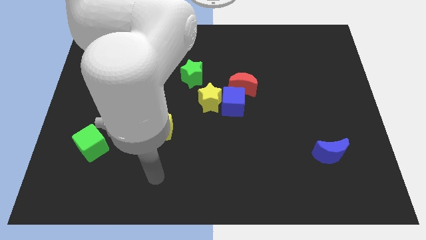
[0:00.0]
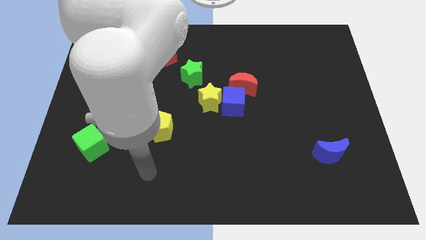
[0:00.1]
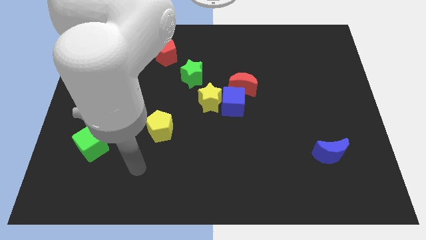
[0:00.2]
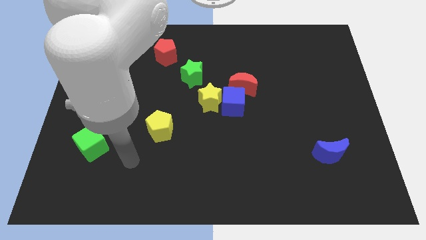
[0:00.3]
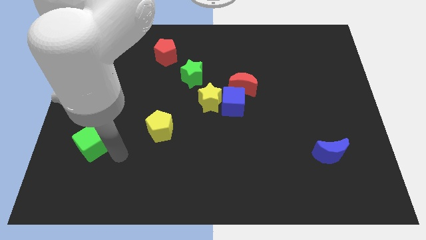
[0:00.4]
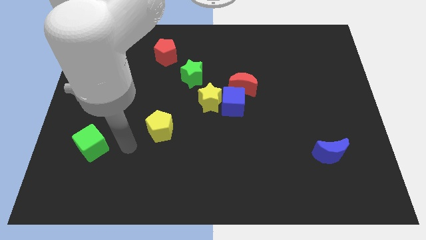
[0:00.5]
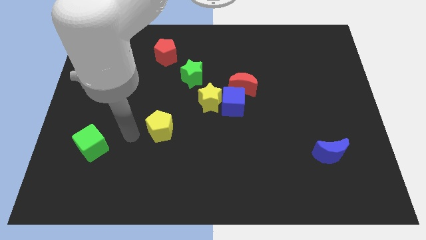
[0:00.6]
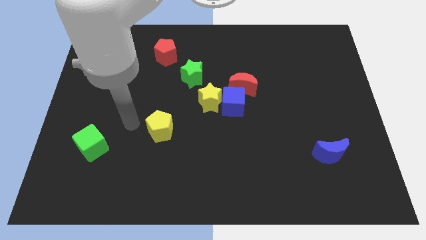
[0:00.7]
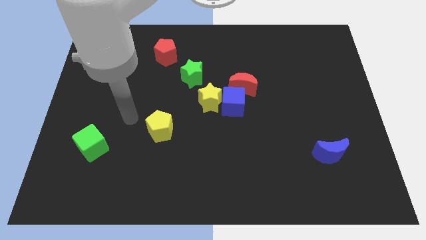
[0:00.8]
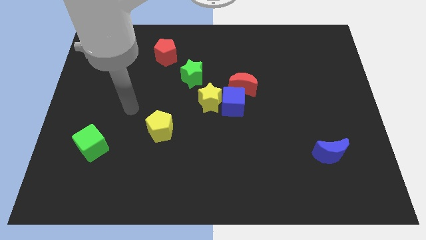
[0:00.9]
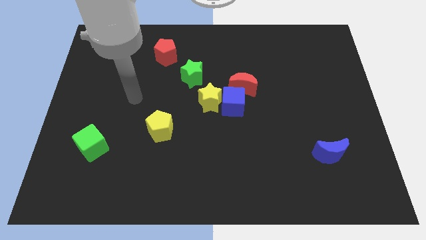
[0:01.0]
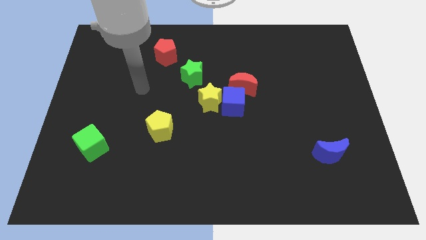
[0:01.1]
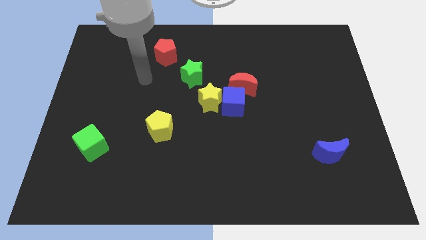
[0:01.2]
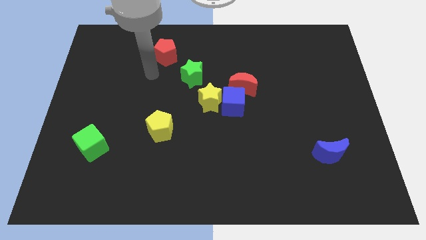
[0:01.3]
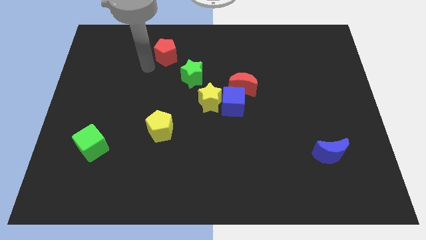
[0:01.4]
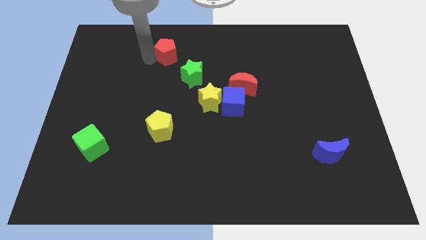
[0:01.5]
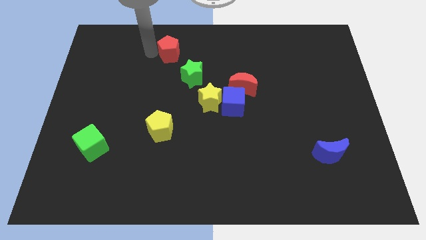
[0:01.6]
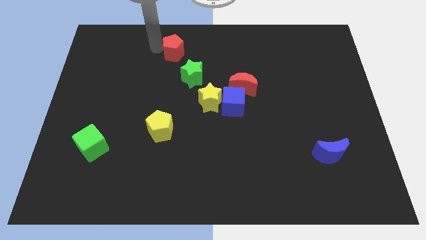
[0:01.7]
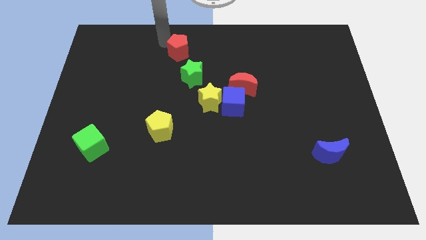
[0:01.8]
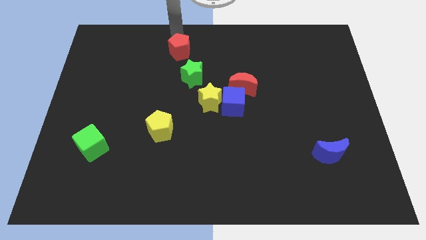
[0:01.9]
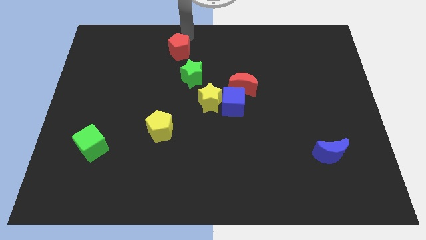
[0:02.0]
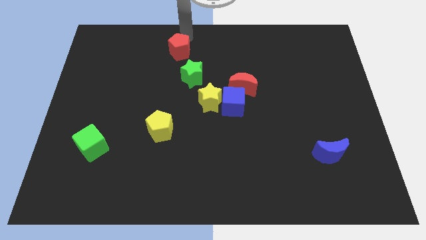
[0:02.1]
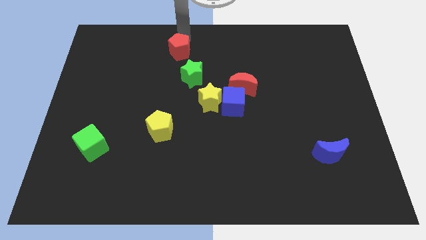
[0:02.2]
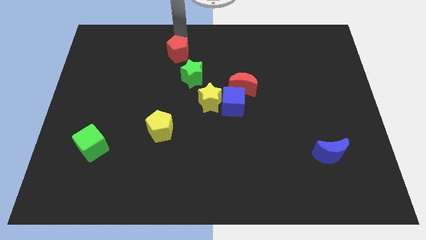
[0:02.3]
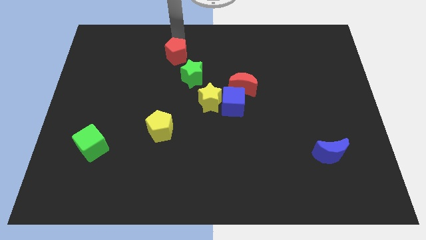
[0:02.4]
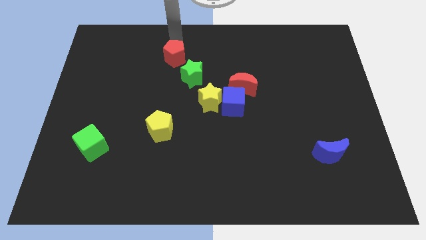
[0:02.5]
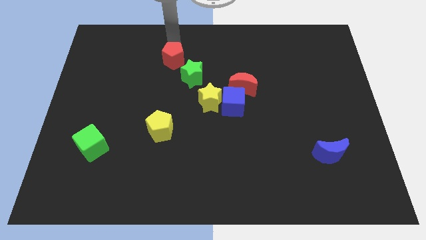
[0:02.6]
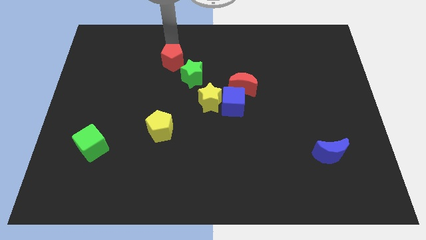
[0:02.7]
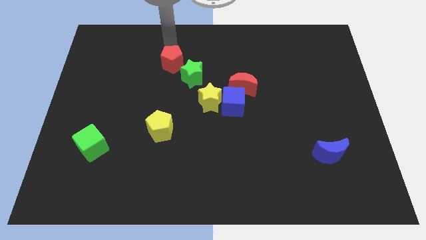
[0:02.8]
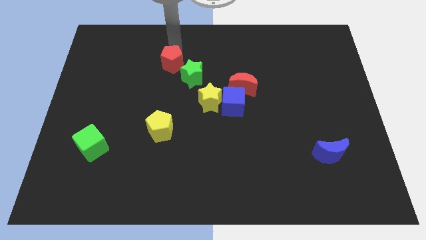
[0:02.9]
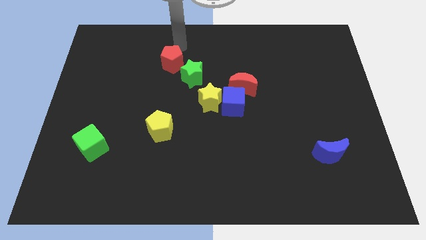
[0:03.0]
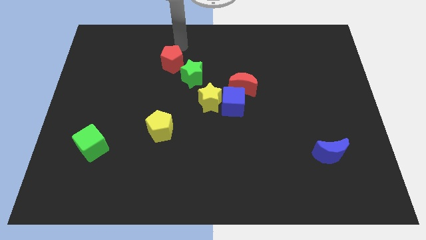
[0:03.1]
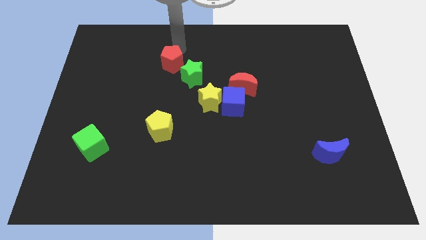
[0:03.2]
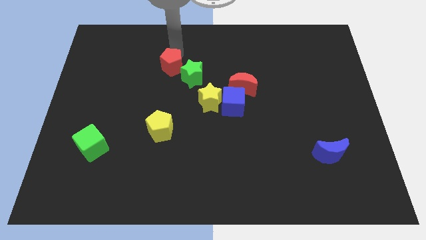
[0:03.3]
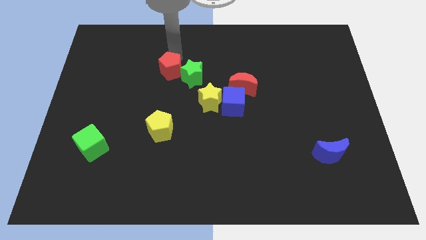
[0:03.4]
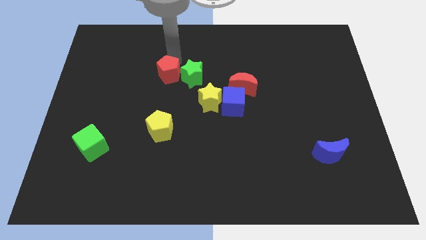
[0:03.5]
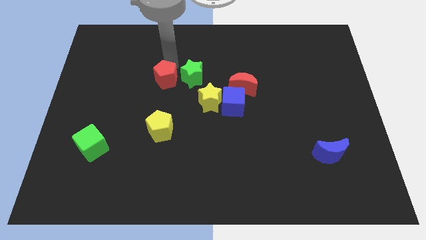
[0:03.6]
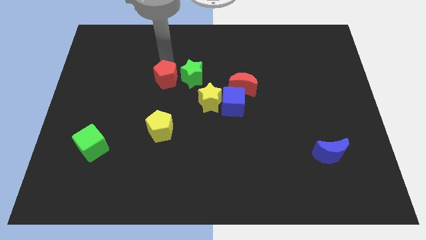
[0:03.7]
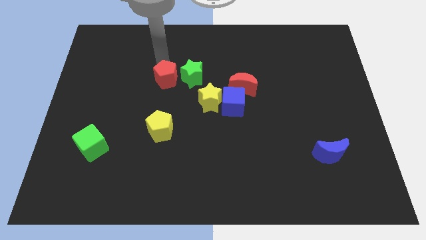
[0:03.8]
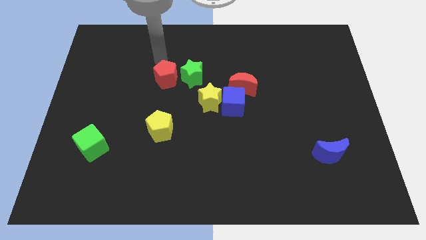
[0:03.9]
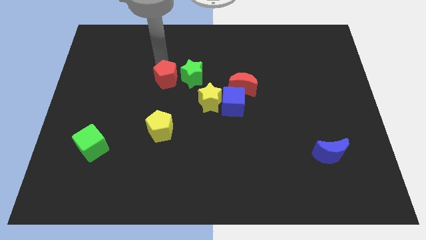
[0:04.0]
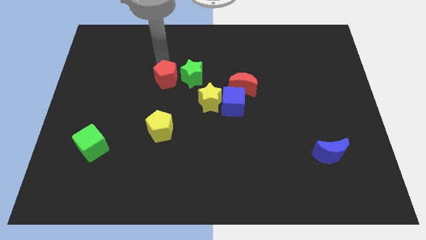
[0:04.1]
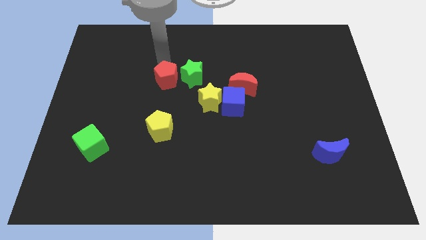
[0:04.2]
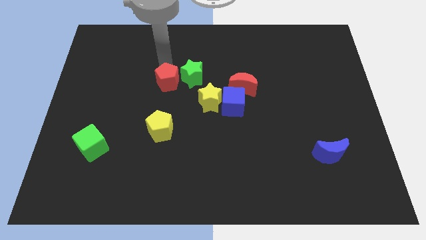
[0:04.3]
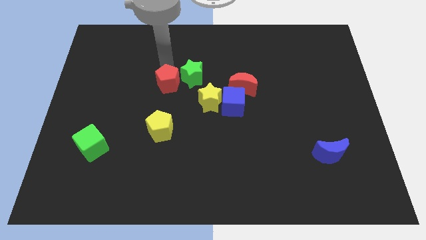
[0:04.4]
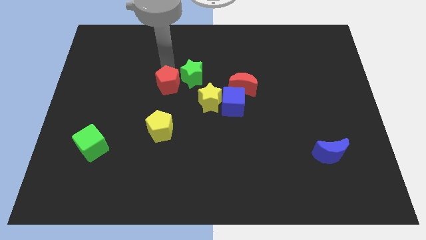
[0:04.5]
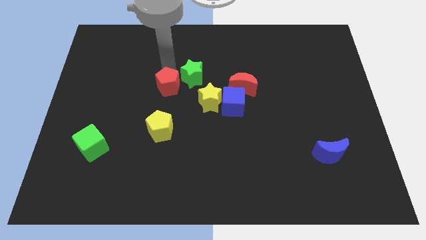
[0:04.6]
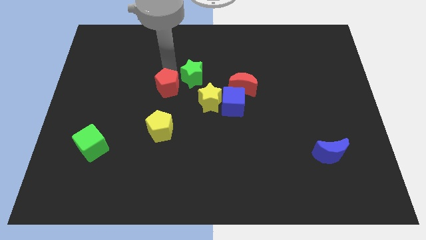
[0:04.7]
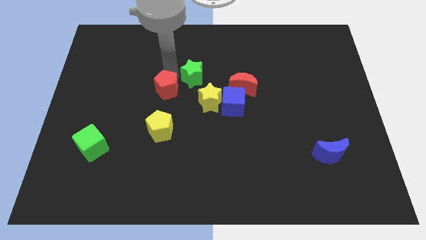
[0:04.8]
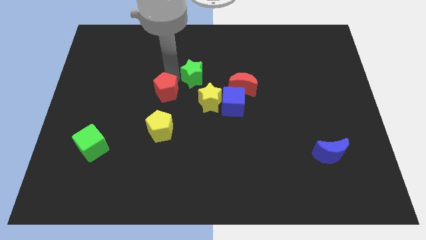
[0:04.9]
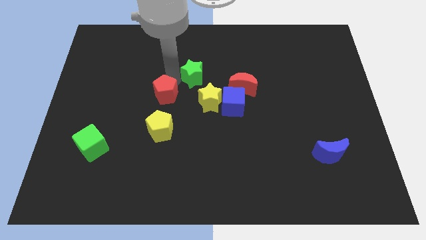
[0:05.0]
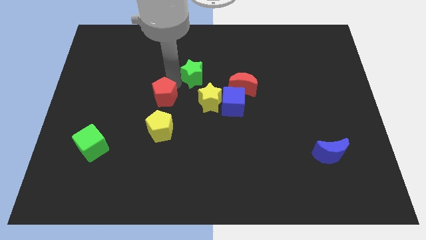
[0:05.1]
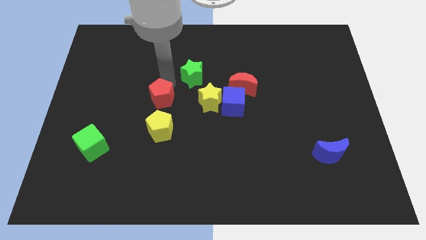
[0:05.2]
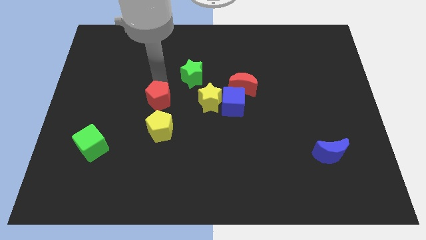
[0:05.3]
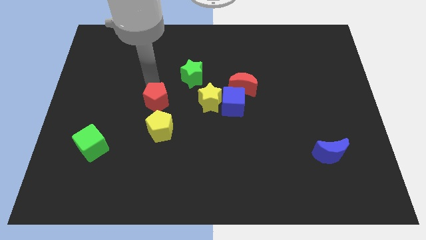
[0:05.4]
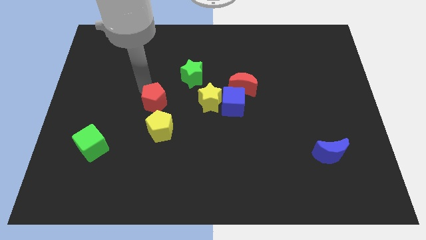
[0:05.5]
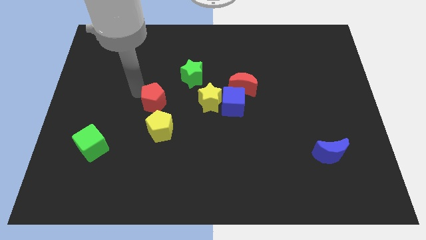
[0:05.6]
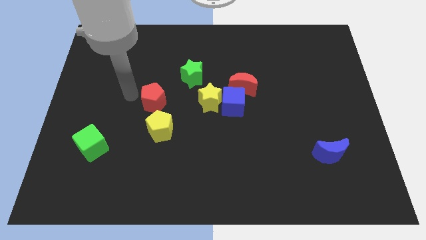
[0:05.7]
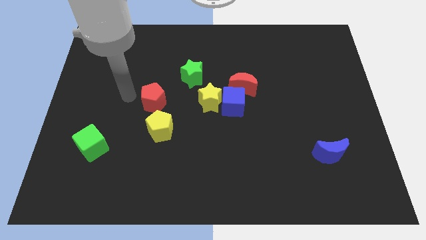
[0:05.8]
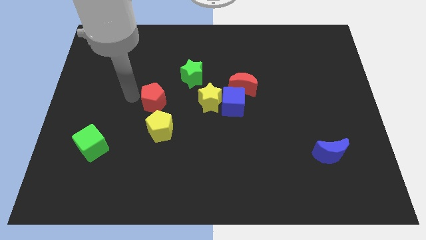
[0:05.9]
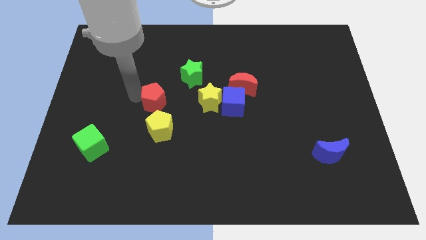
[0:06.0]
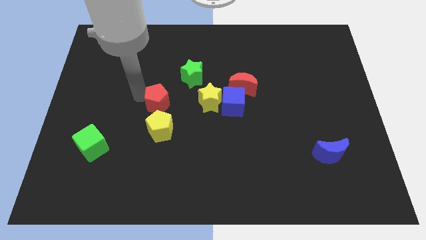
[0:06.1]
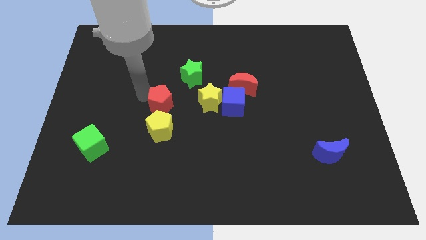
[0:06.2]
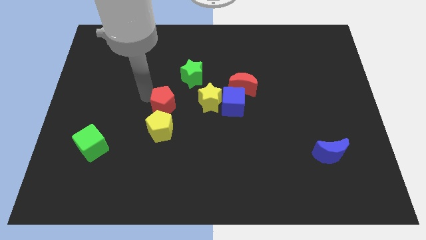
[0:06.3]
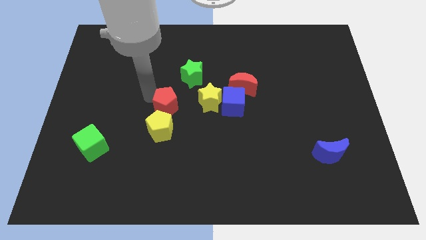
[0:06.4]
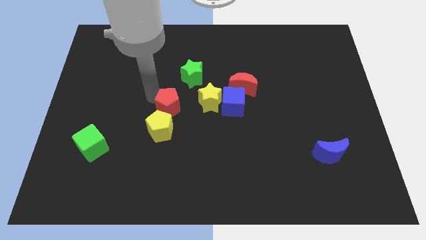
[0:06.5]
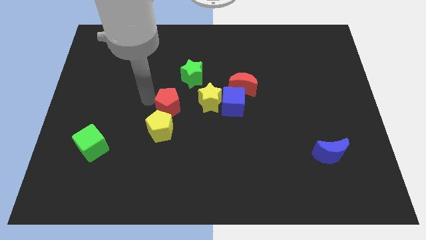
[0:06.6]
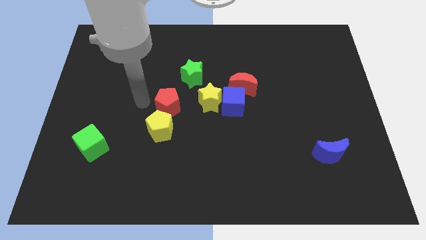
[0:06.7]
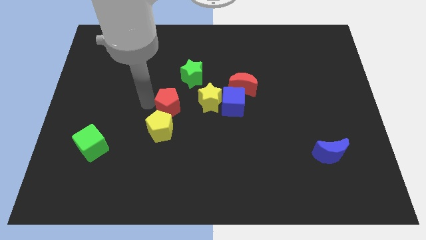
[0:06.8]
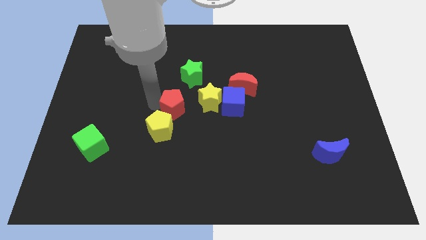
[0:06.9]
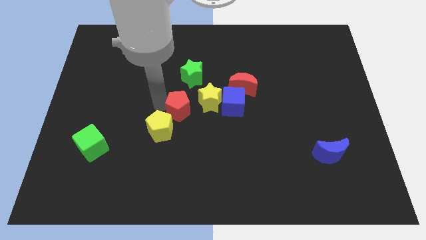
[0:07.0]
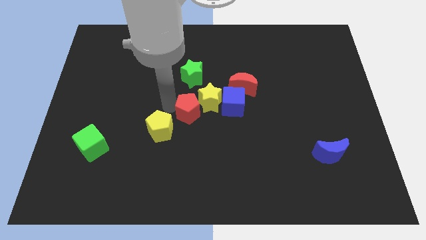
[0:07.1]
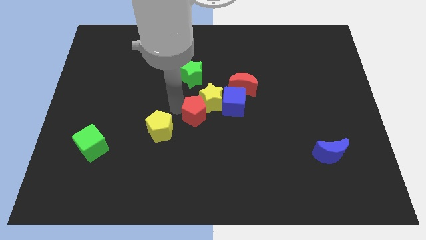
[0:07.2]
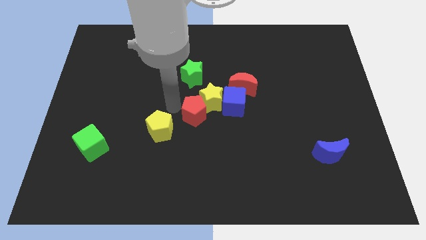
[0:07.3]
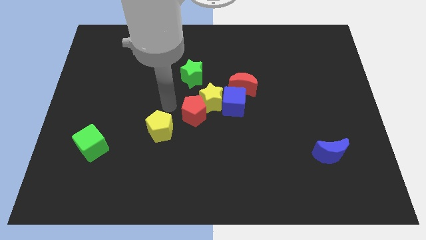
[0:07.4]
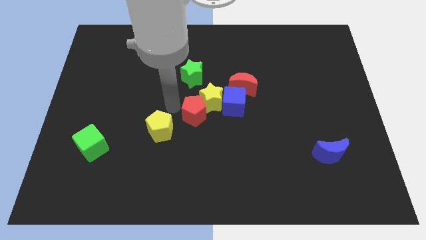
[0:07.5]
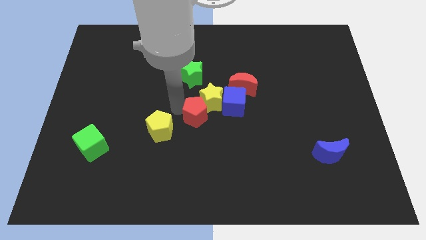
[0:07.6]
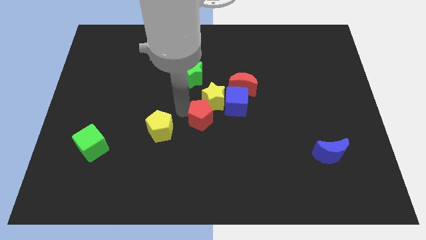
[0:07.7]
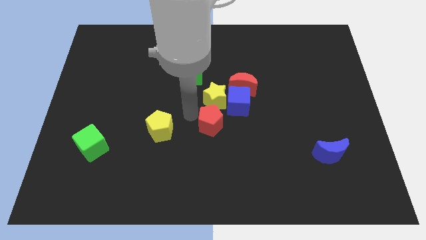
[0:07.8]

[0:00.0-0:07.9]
move the red pentagon downwards and then to the right

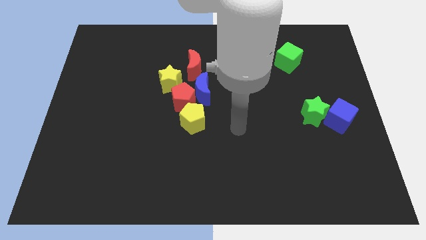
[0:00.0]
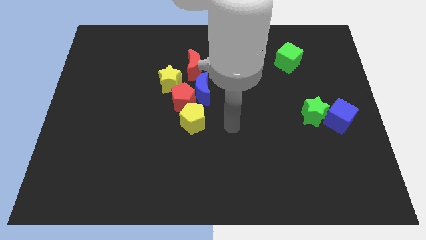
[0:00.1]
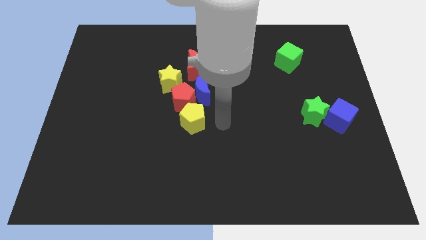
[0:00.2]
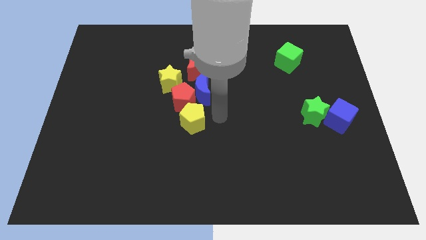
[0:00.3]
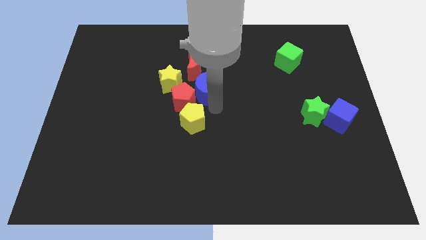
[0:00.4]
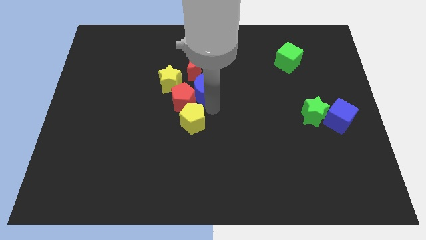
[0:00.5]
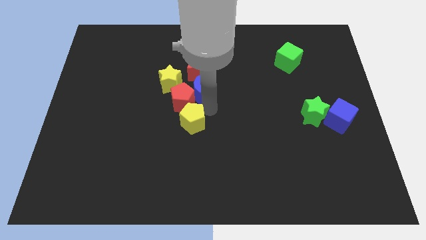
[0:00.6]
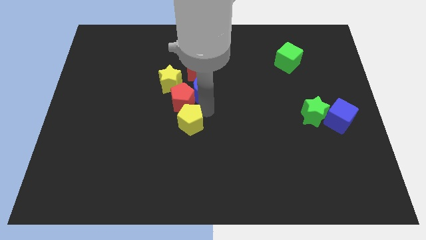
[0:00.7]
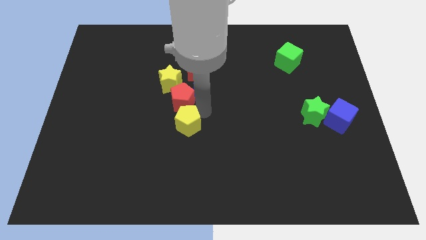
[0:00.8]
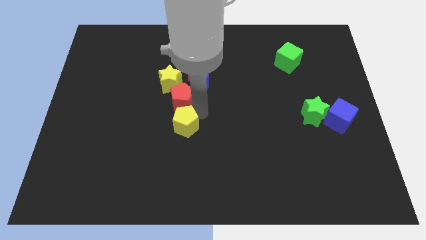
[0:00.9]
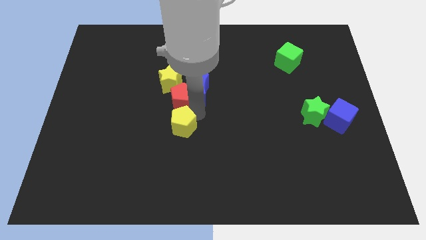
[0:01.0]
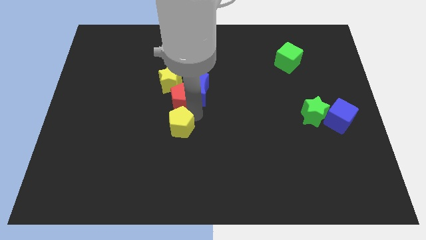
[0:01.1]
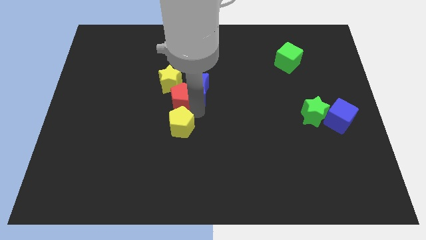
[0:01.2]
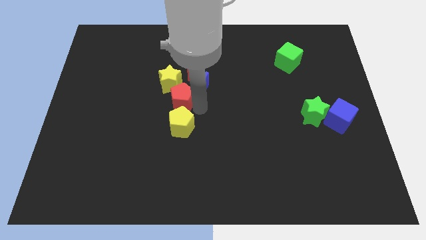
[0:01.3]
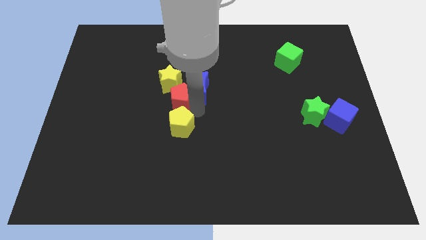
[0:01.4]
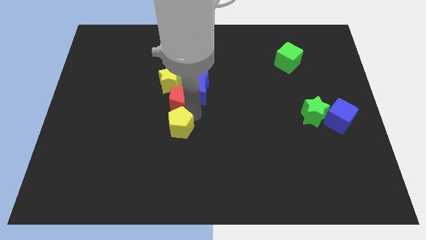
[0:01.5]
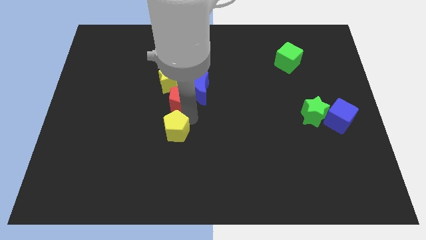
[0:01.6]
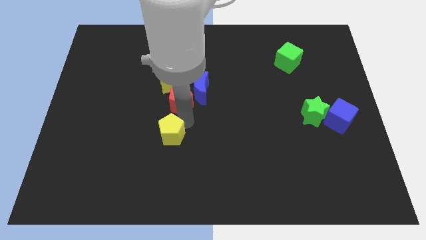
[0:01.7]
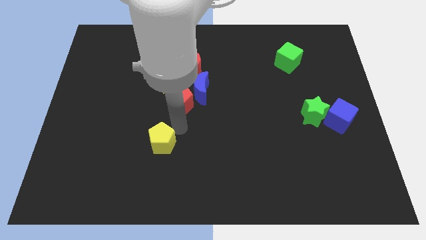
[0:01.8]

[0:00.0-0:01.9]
slightly push the yellow pentagon down and left diagonally
